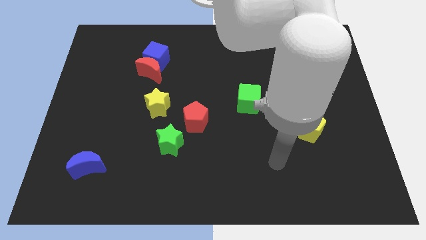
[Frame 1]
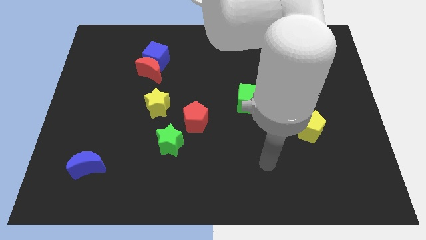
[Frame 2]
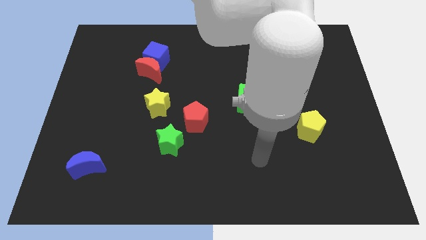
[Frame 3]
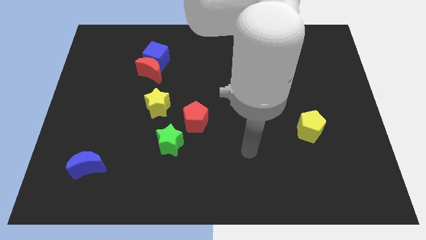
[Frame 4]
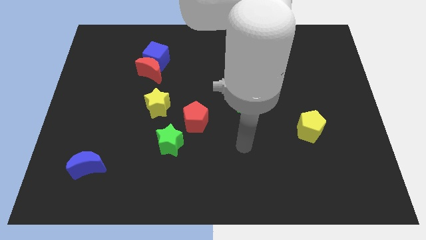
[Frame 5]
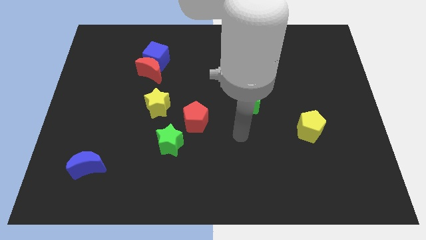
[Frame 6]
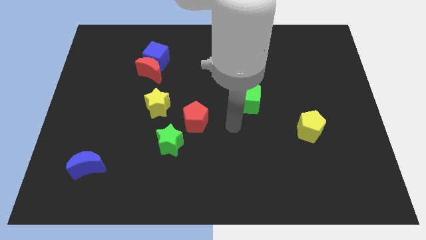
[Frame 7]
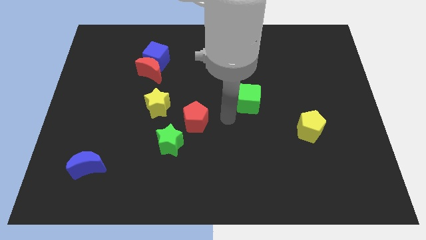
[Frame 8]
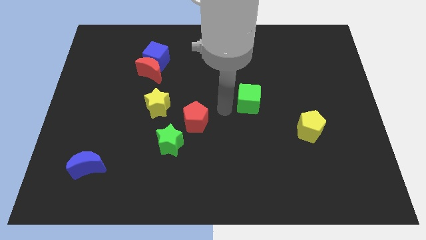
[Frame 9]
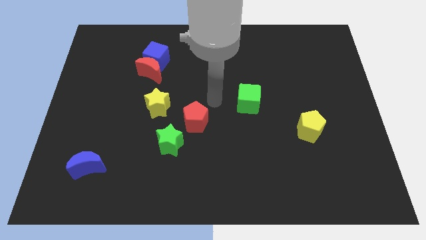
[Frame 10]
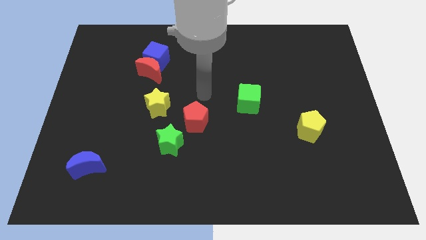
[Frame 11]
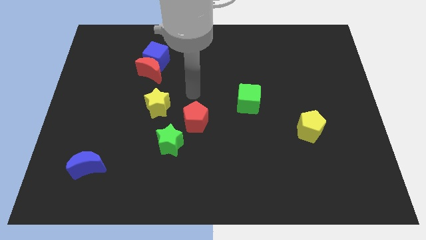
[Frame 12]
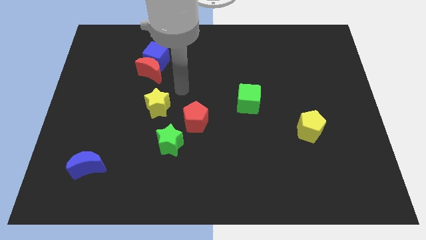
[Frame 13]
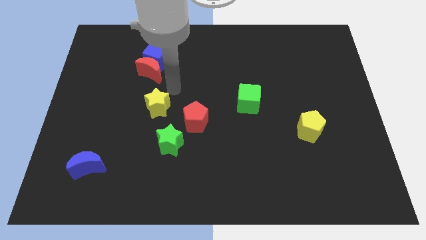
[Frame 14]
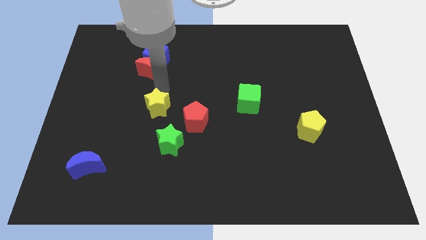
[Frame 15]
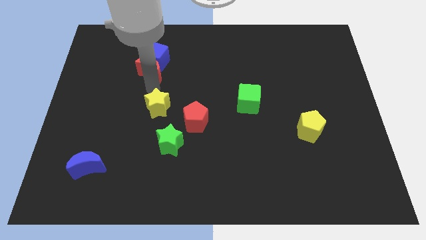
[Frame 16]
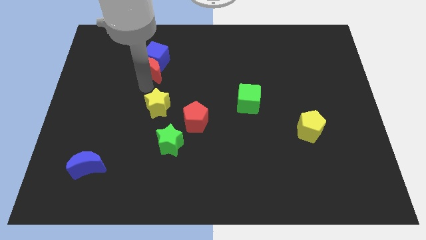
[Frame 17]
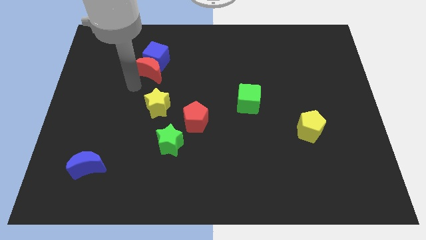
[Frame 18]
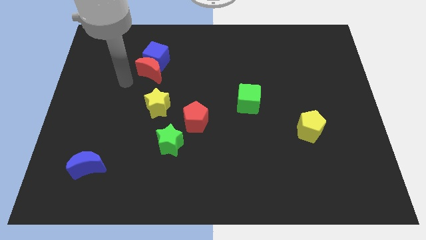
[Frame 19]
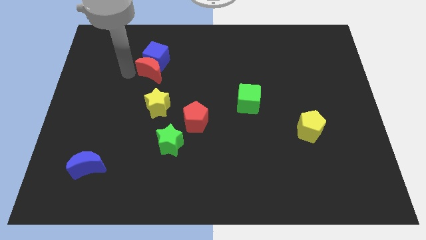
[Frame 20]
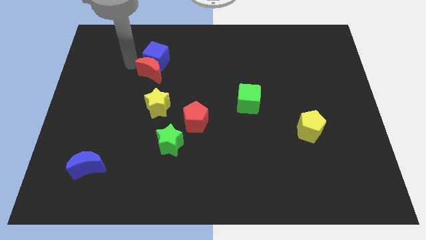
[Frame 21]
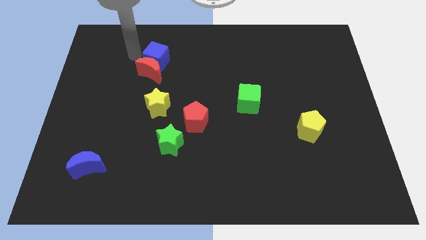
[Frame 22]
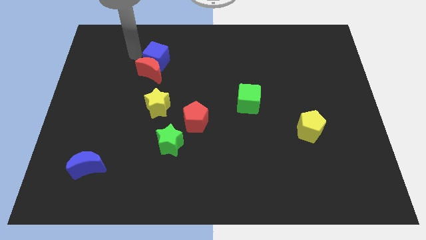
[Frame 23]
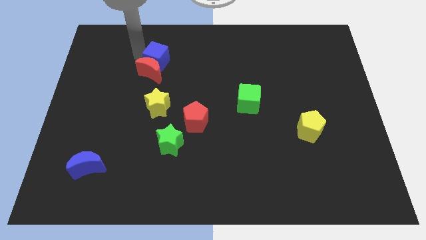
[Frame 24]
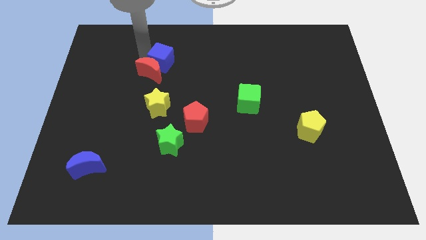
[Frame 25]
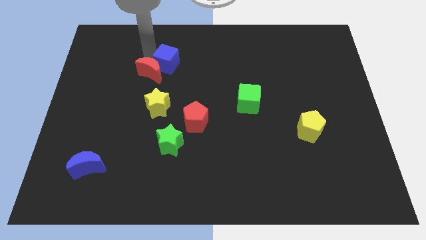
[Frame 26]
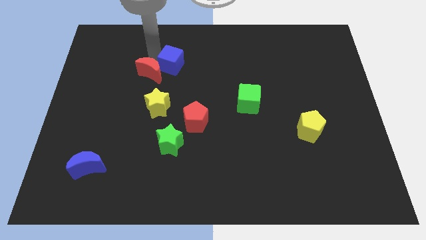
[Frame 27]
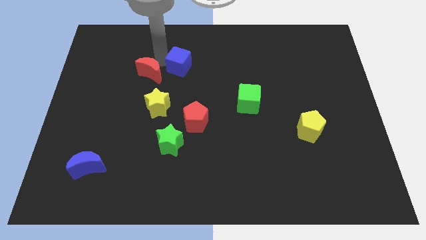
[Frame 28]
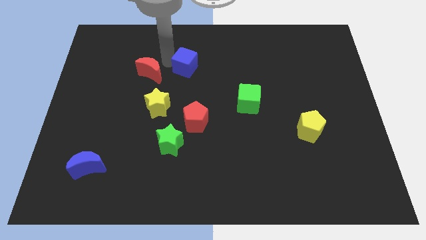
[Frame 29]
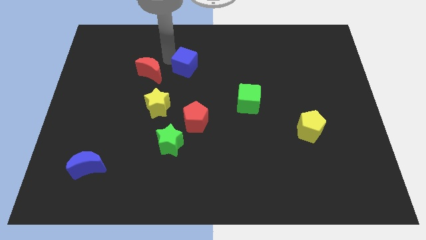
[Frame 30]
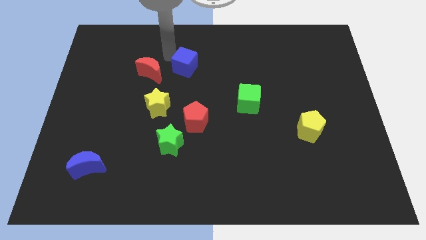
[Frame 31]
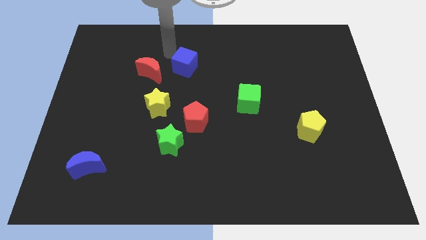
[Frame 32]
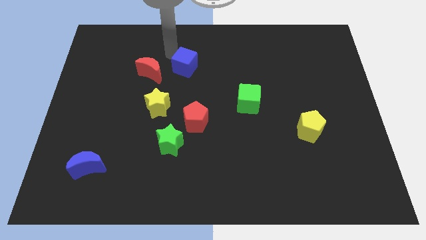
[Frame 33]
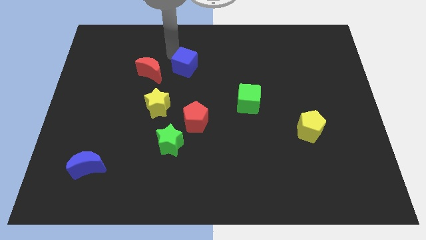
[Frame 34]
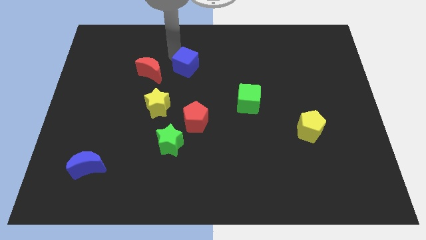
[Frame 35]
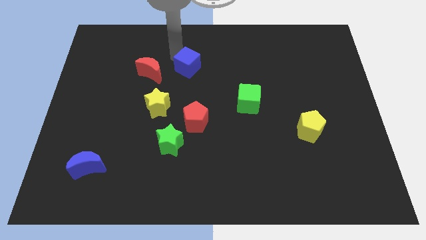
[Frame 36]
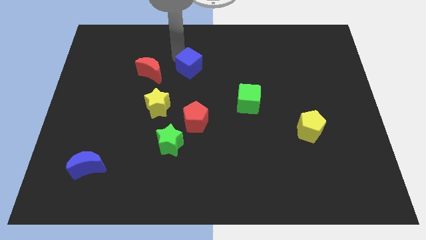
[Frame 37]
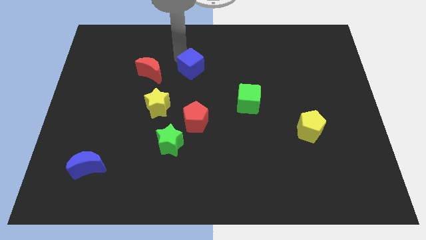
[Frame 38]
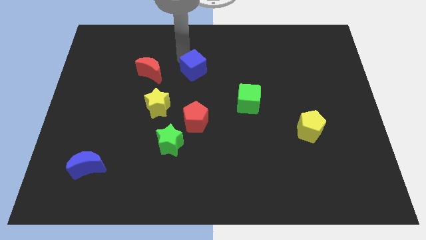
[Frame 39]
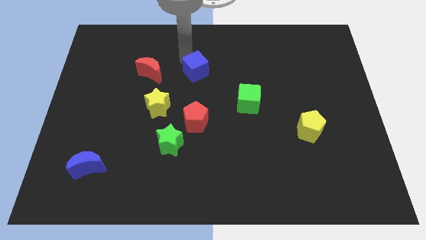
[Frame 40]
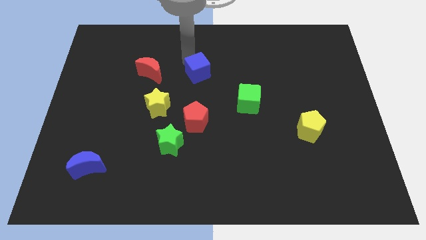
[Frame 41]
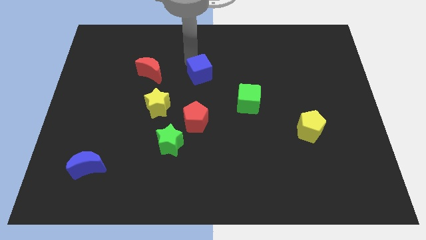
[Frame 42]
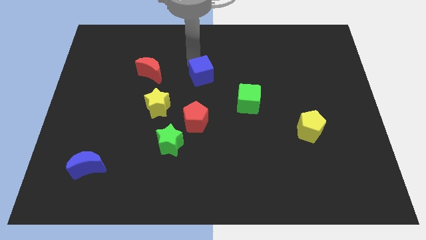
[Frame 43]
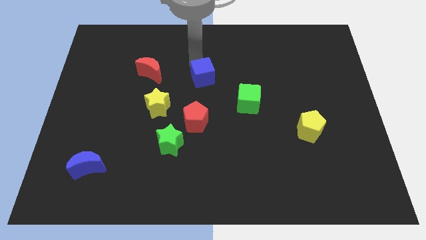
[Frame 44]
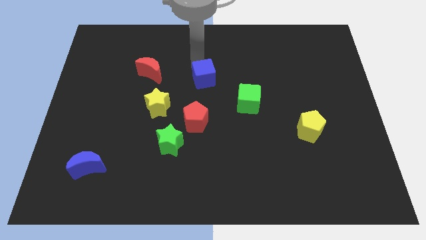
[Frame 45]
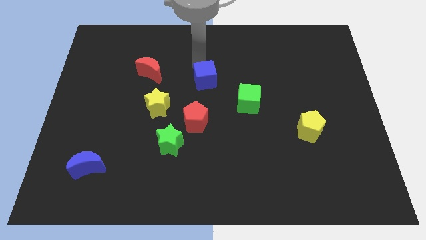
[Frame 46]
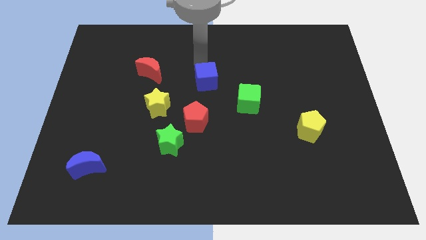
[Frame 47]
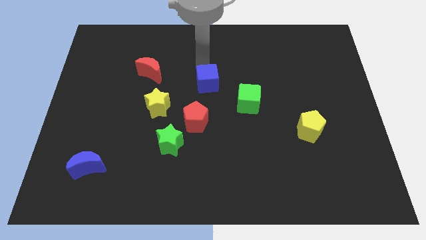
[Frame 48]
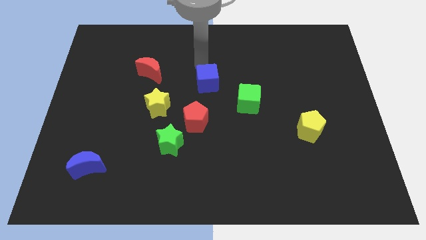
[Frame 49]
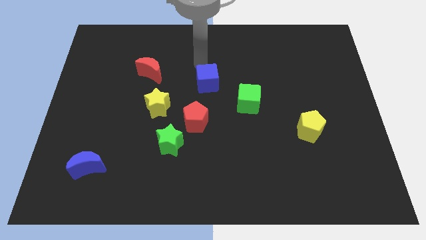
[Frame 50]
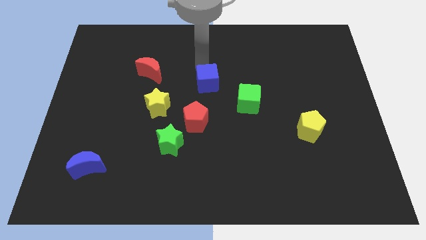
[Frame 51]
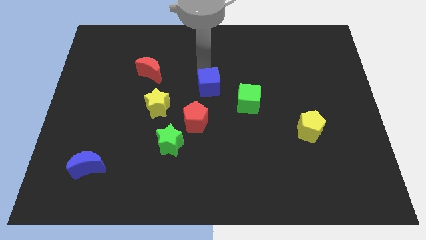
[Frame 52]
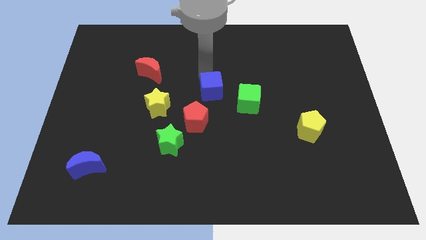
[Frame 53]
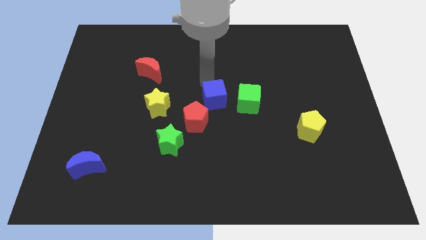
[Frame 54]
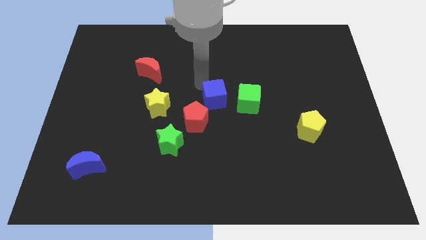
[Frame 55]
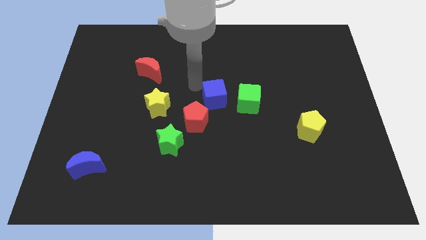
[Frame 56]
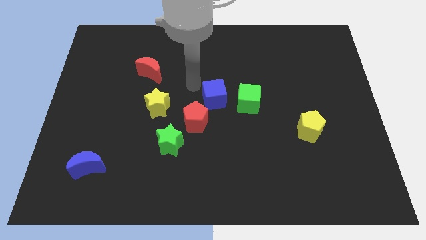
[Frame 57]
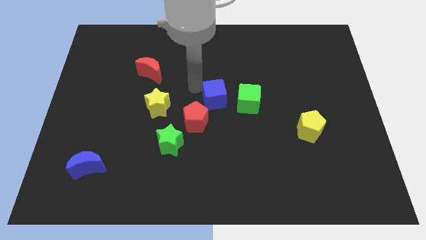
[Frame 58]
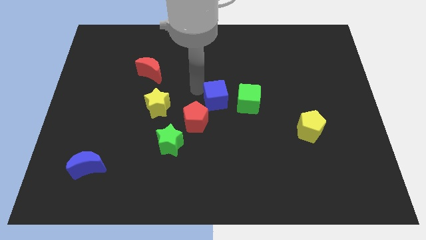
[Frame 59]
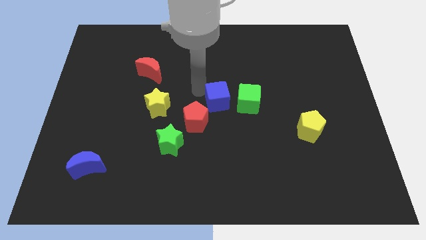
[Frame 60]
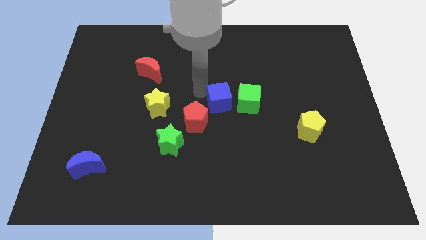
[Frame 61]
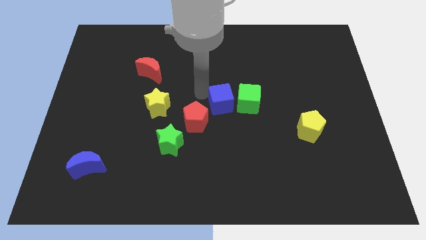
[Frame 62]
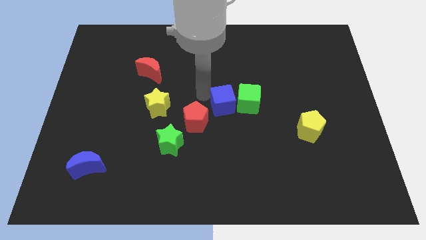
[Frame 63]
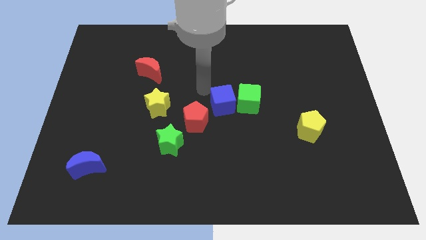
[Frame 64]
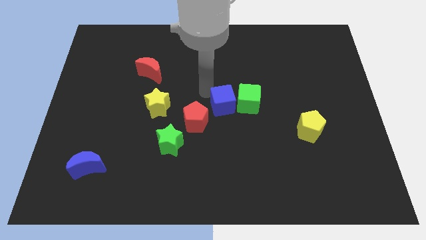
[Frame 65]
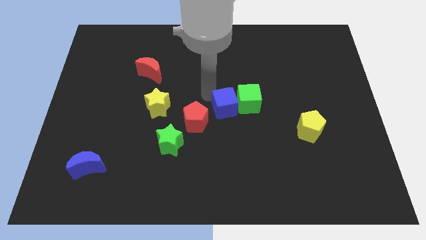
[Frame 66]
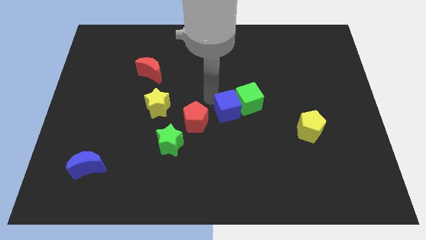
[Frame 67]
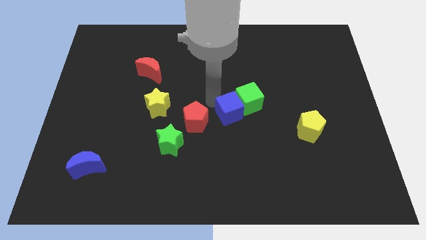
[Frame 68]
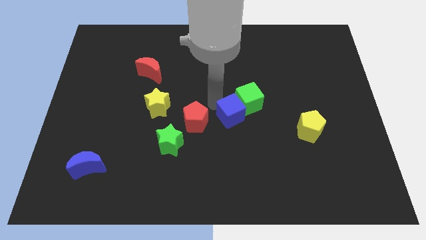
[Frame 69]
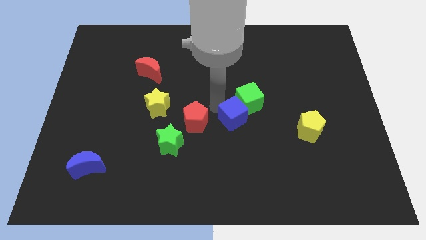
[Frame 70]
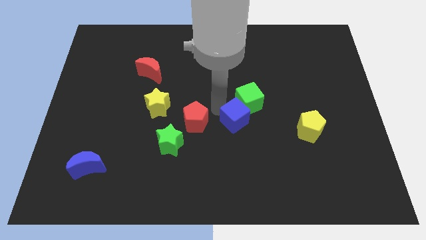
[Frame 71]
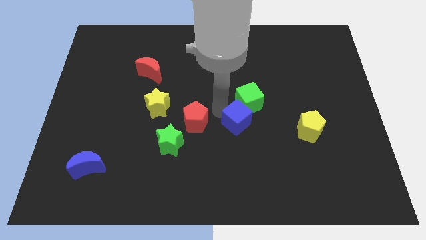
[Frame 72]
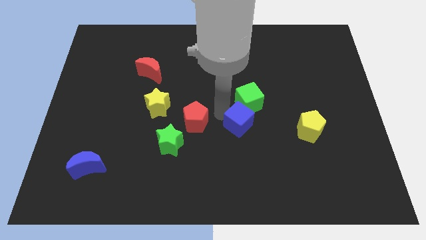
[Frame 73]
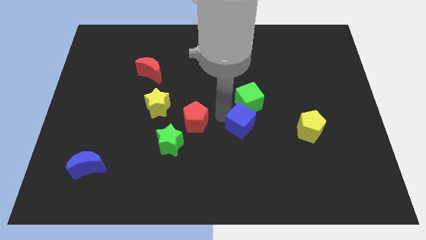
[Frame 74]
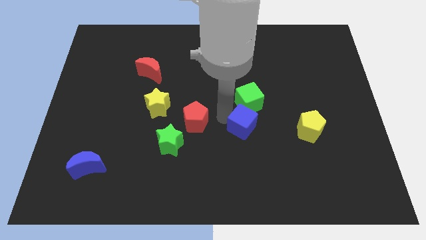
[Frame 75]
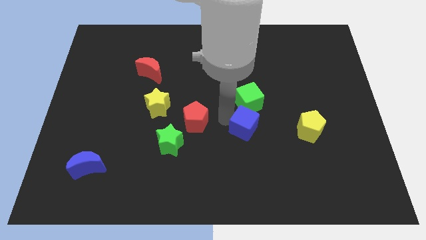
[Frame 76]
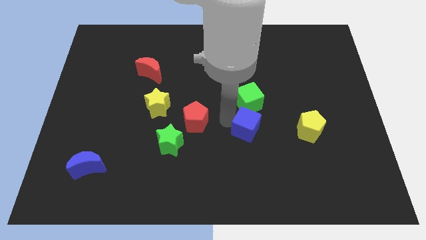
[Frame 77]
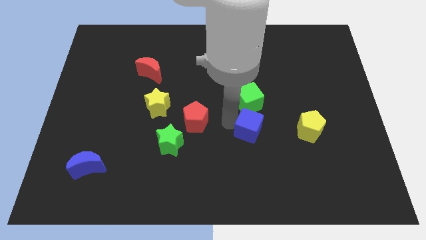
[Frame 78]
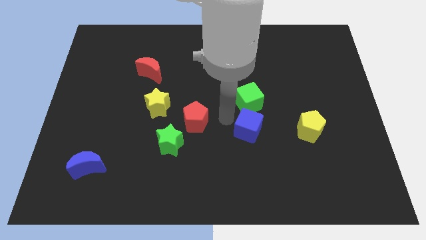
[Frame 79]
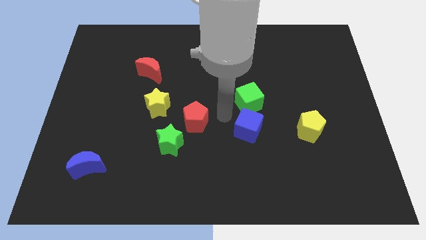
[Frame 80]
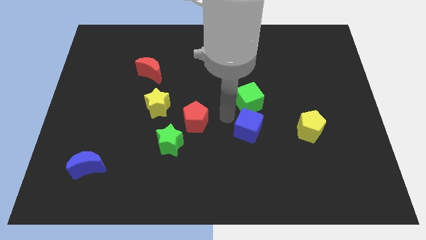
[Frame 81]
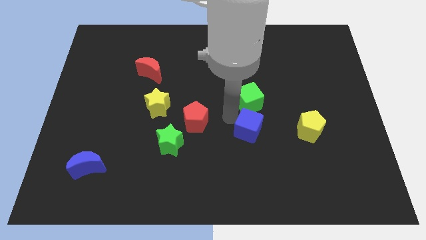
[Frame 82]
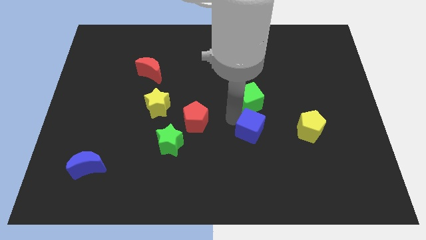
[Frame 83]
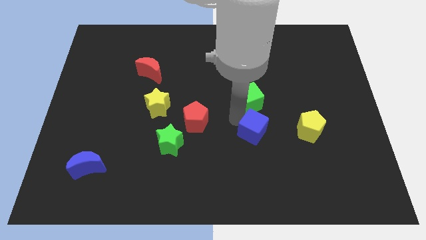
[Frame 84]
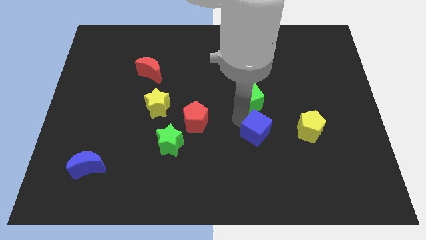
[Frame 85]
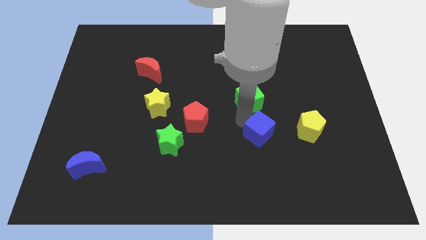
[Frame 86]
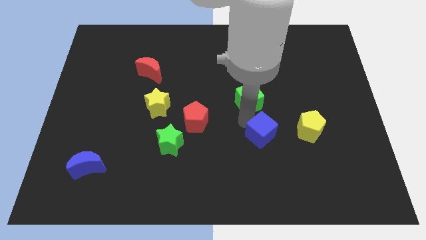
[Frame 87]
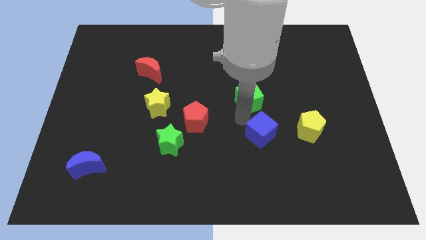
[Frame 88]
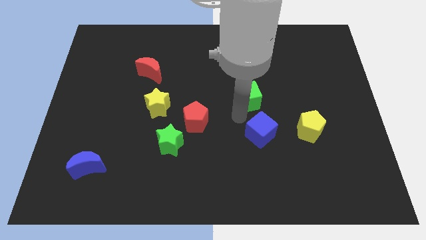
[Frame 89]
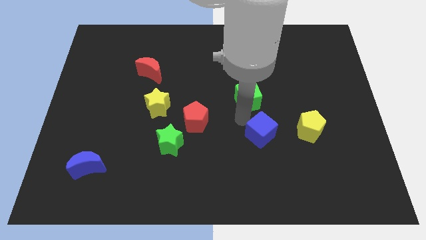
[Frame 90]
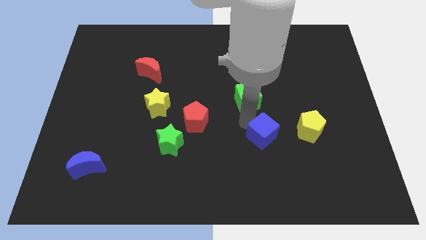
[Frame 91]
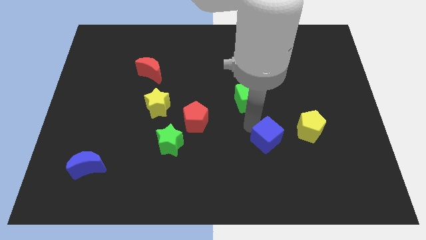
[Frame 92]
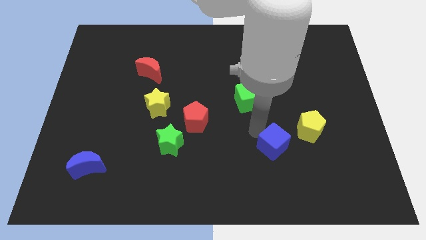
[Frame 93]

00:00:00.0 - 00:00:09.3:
move the blue cube to the bottom left side of the yellow pentagon
